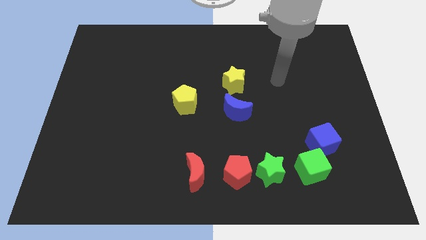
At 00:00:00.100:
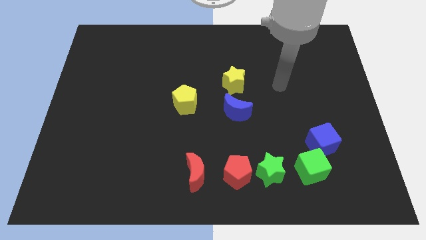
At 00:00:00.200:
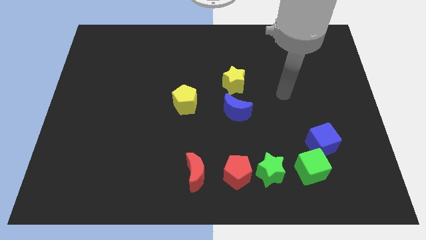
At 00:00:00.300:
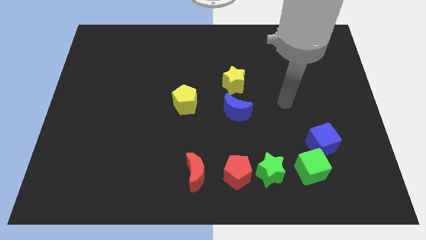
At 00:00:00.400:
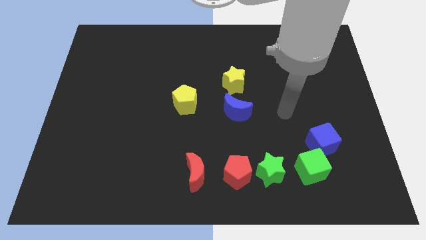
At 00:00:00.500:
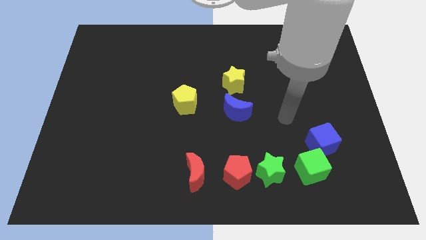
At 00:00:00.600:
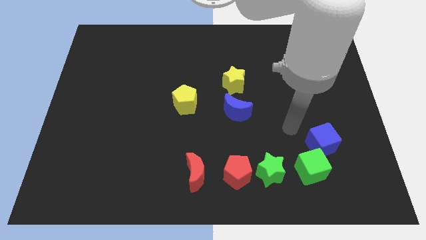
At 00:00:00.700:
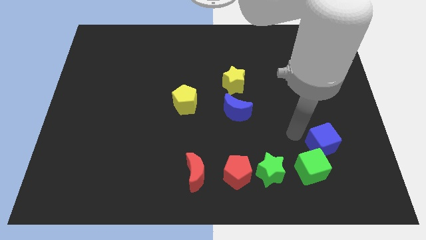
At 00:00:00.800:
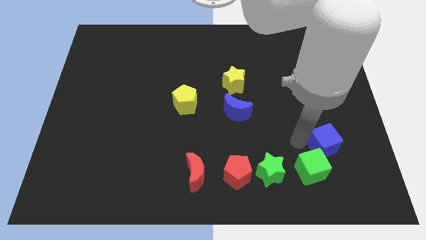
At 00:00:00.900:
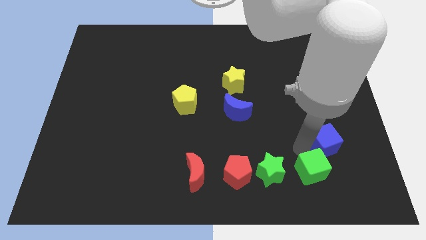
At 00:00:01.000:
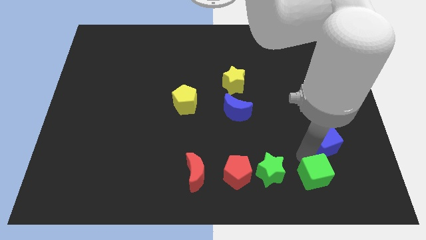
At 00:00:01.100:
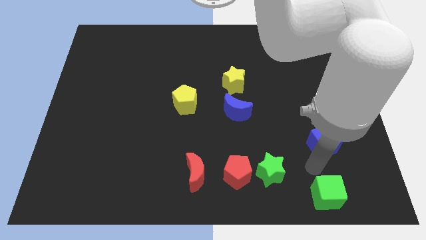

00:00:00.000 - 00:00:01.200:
separate the blue cube from the green cube

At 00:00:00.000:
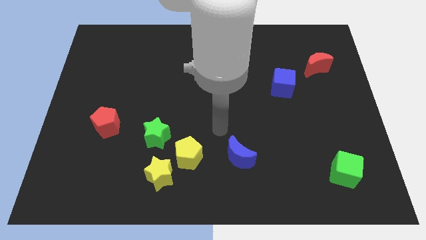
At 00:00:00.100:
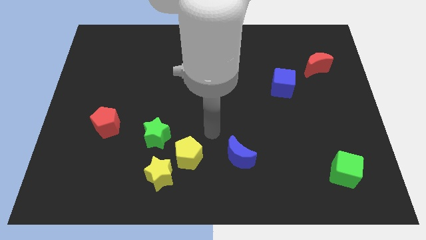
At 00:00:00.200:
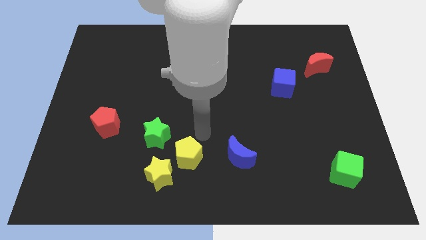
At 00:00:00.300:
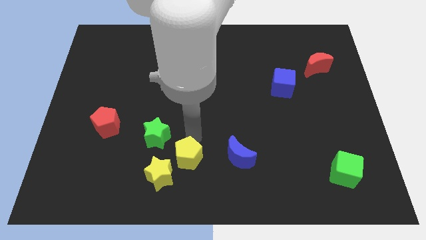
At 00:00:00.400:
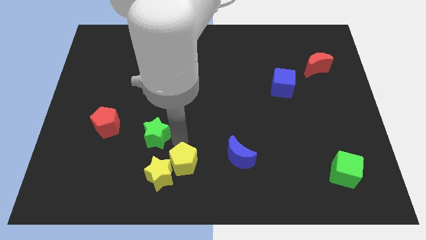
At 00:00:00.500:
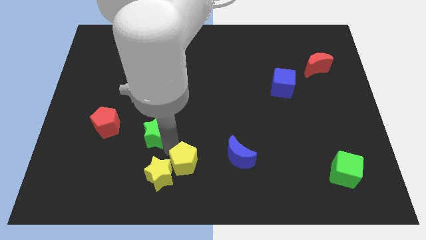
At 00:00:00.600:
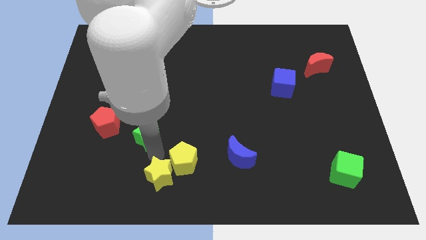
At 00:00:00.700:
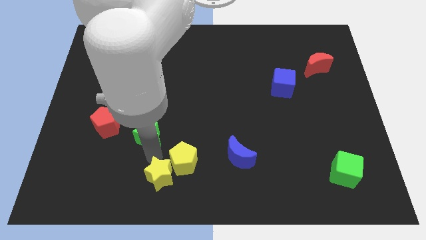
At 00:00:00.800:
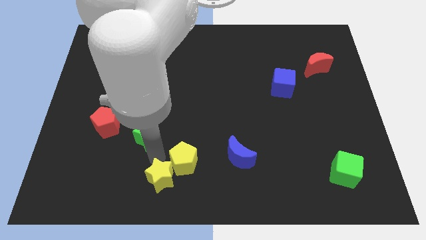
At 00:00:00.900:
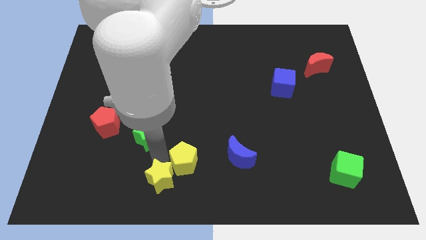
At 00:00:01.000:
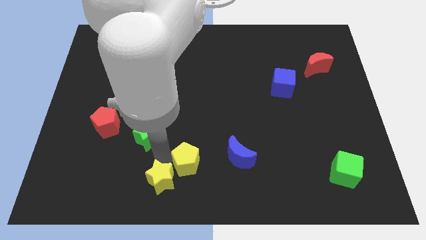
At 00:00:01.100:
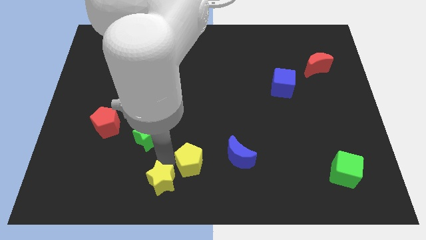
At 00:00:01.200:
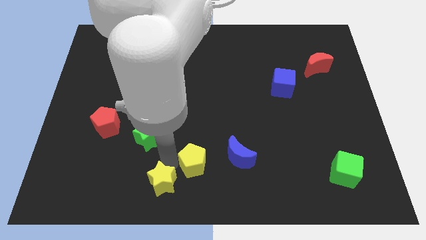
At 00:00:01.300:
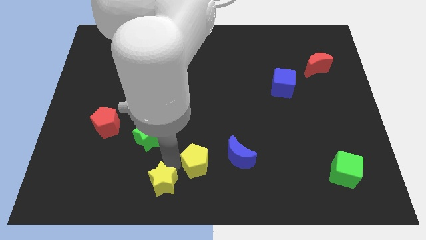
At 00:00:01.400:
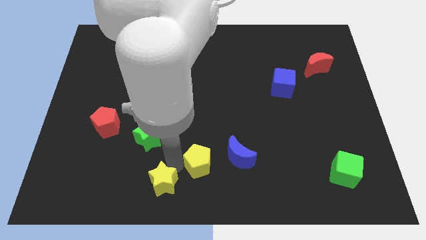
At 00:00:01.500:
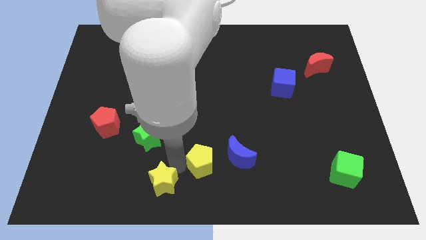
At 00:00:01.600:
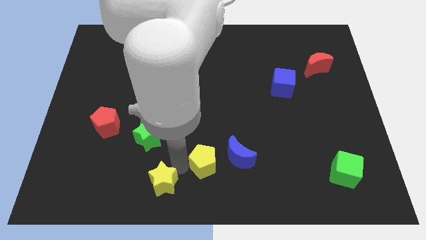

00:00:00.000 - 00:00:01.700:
separate the yellow pentagon from the yellow star and green star

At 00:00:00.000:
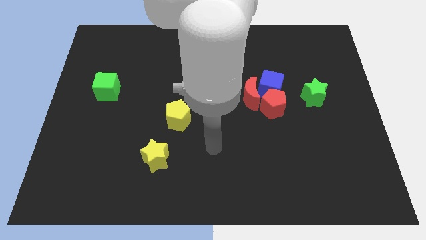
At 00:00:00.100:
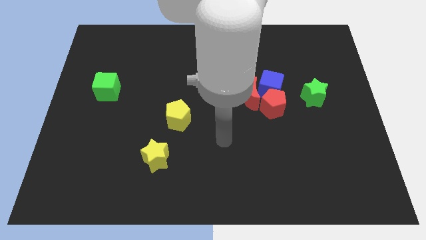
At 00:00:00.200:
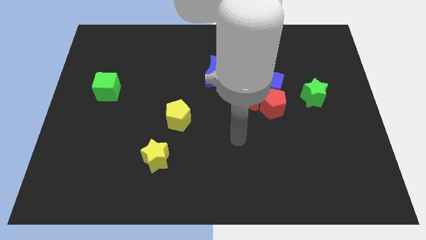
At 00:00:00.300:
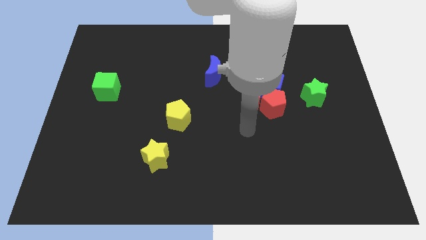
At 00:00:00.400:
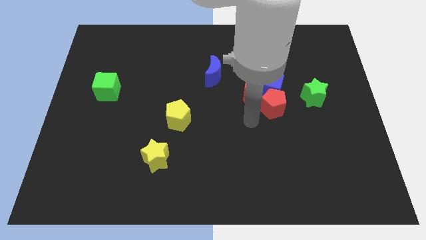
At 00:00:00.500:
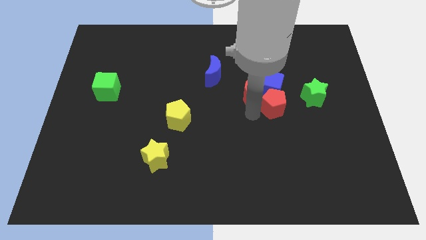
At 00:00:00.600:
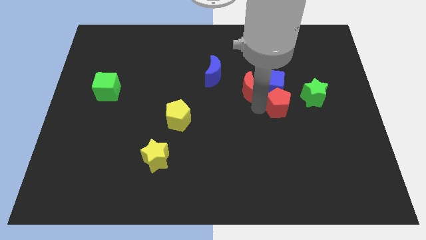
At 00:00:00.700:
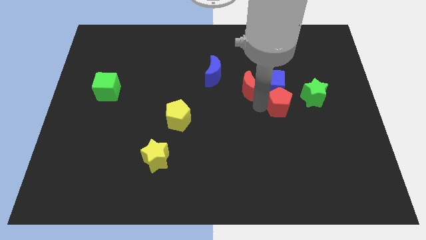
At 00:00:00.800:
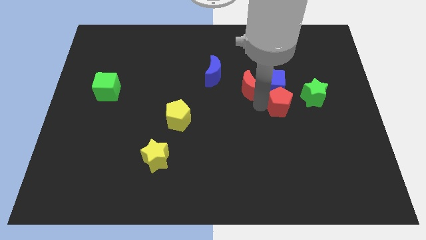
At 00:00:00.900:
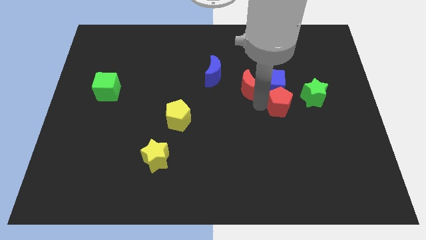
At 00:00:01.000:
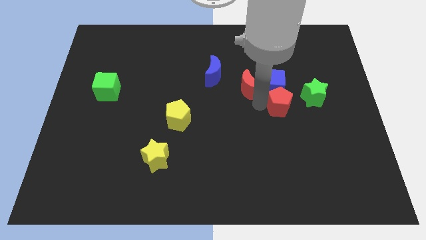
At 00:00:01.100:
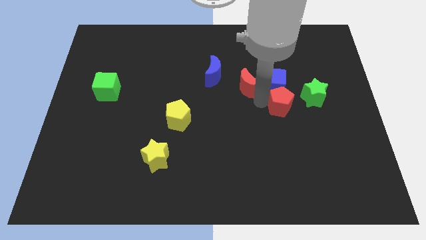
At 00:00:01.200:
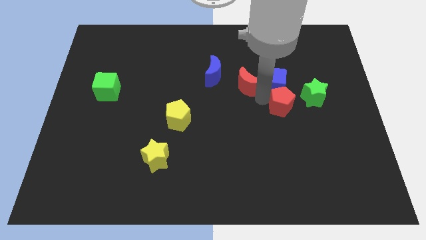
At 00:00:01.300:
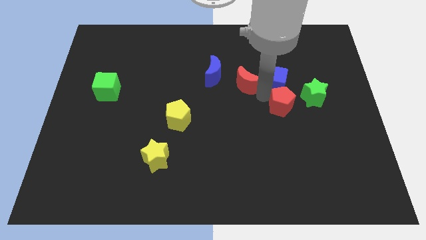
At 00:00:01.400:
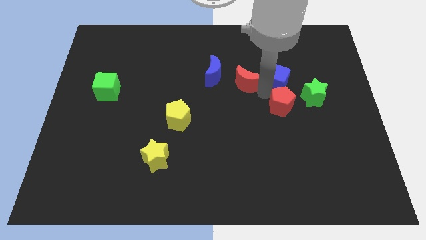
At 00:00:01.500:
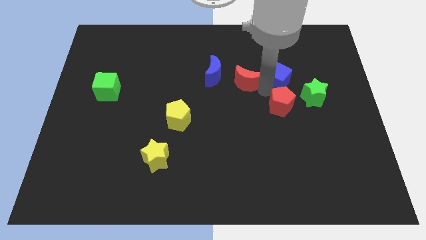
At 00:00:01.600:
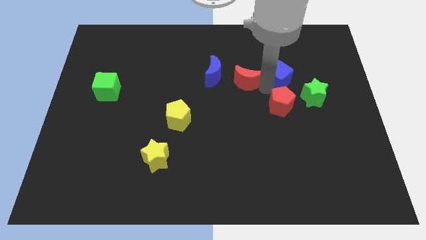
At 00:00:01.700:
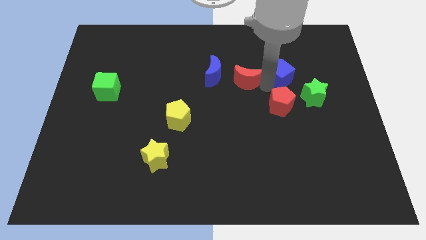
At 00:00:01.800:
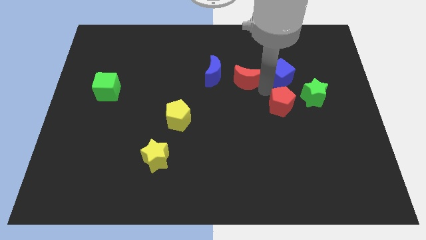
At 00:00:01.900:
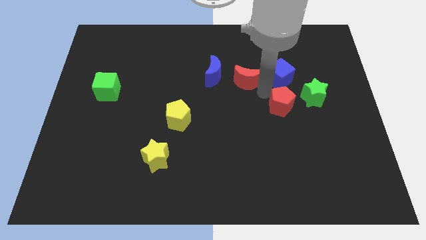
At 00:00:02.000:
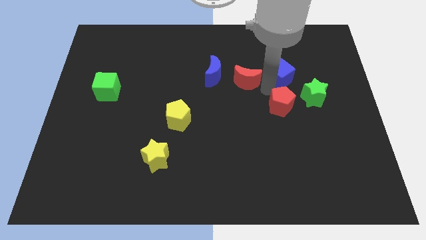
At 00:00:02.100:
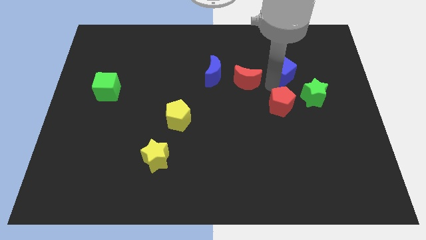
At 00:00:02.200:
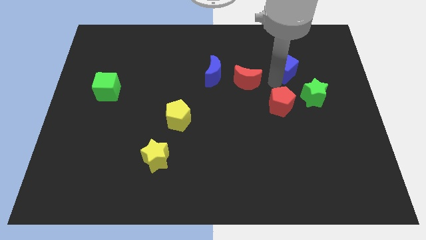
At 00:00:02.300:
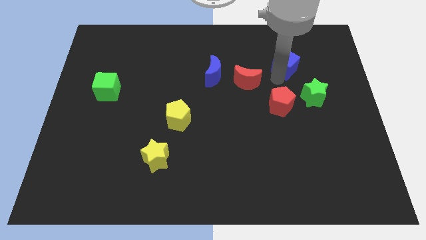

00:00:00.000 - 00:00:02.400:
separate the blue cube from the red moon and red pentagon

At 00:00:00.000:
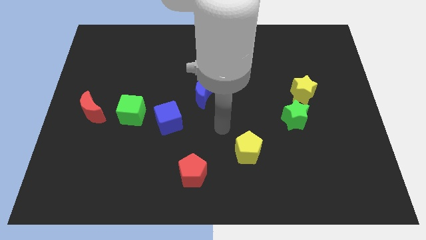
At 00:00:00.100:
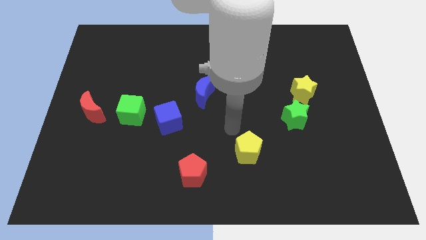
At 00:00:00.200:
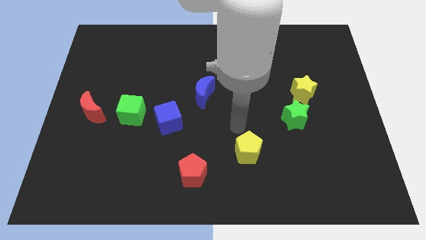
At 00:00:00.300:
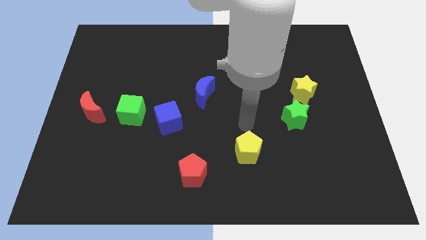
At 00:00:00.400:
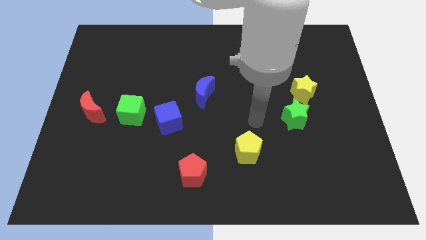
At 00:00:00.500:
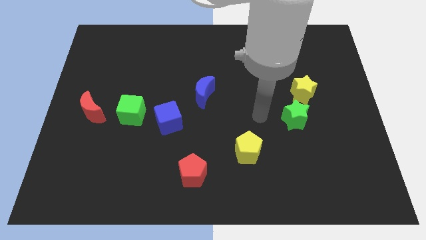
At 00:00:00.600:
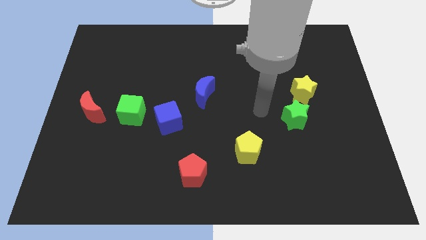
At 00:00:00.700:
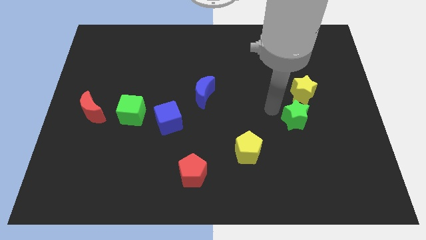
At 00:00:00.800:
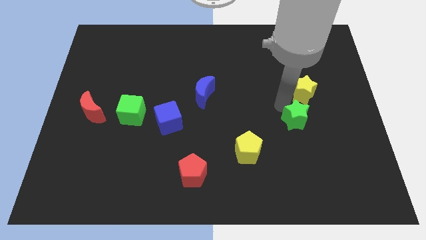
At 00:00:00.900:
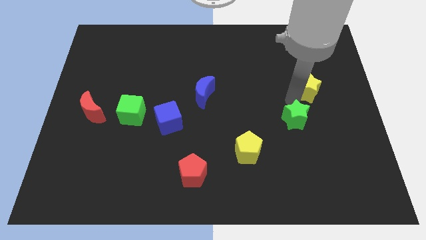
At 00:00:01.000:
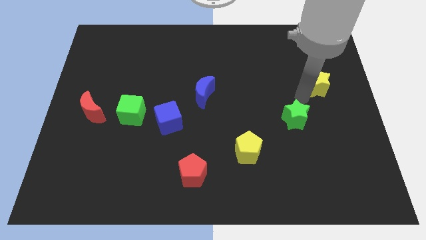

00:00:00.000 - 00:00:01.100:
move the green star away from the yellow star

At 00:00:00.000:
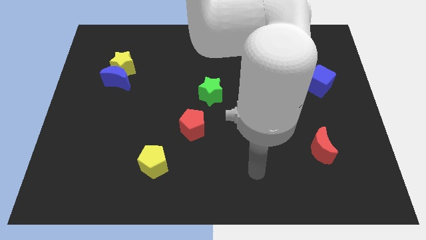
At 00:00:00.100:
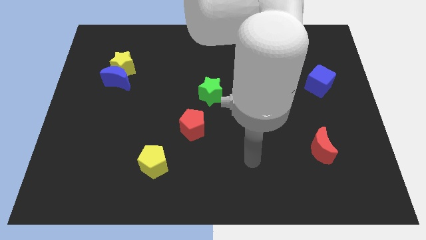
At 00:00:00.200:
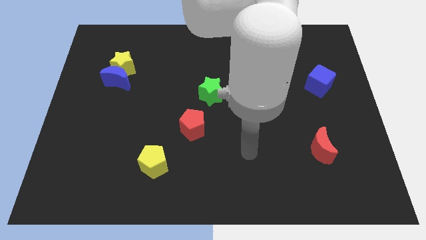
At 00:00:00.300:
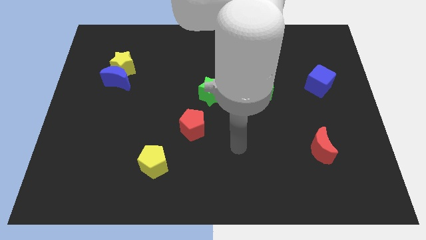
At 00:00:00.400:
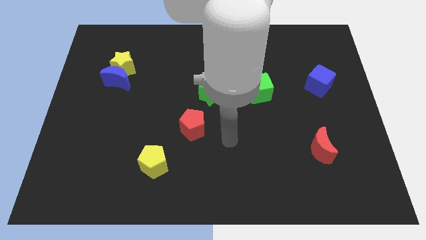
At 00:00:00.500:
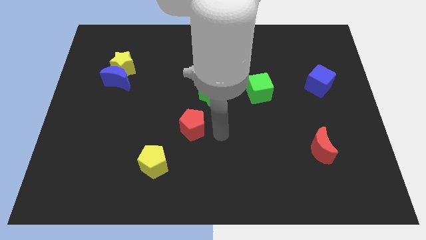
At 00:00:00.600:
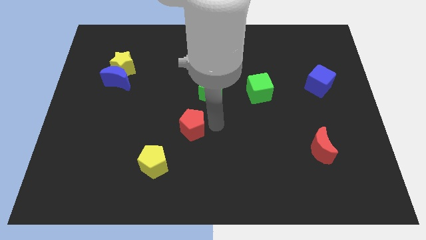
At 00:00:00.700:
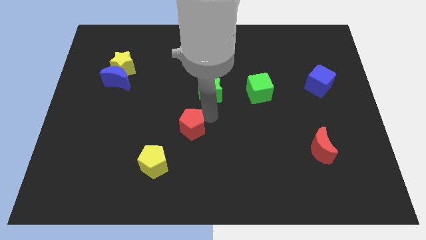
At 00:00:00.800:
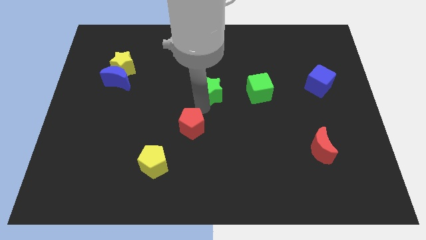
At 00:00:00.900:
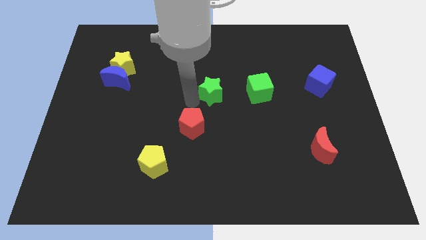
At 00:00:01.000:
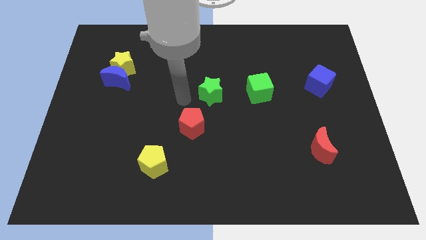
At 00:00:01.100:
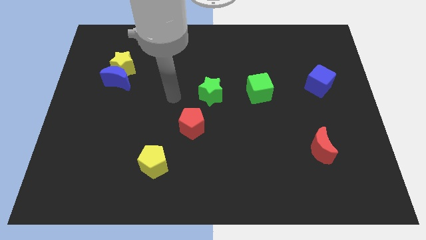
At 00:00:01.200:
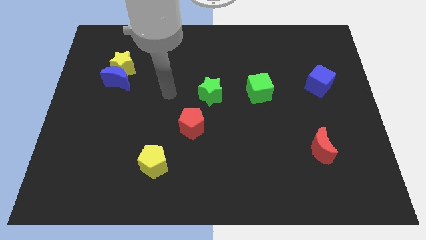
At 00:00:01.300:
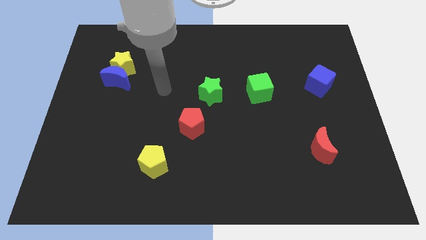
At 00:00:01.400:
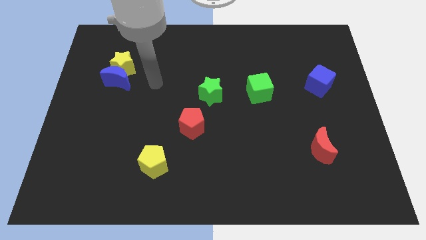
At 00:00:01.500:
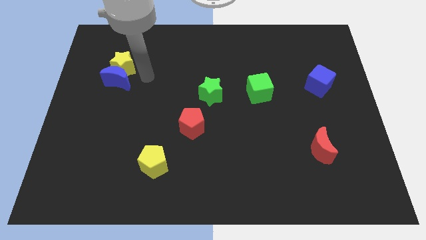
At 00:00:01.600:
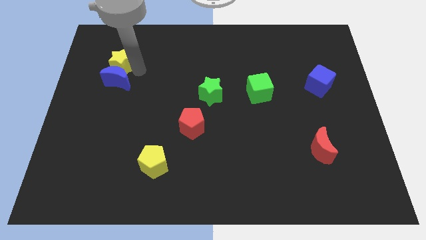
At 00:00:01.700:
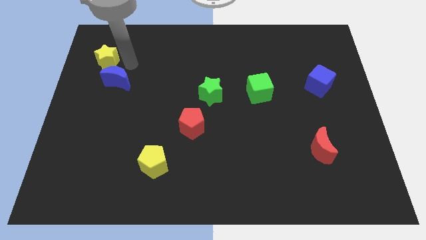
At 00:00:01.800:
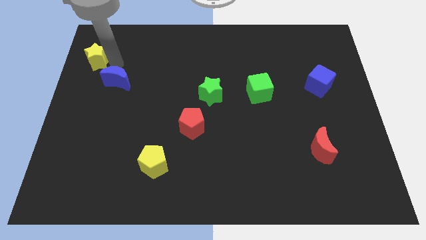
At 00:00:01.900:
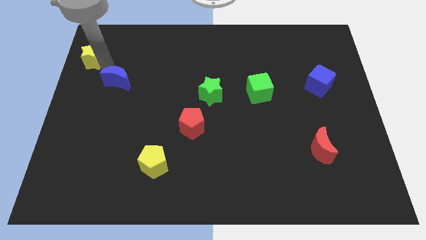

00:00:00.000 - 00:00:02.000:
pull the blue moon apart from the yellow star

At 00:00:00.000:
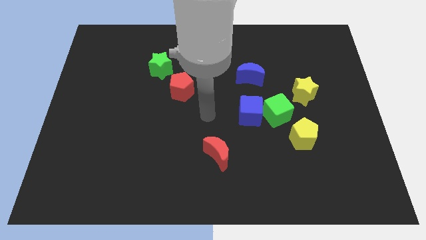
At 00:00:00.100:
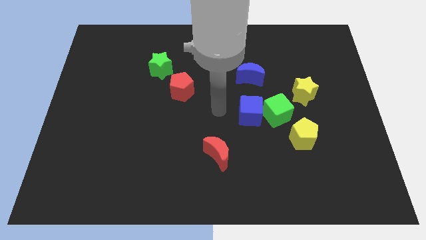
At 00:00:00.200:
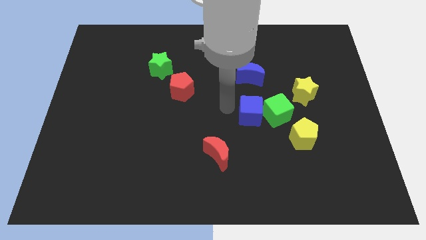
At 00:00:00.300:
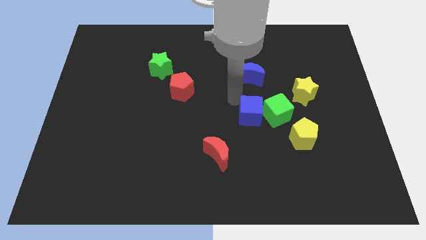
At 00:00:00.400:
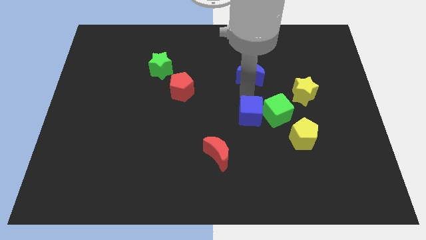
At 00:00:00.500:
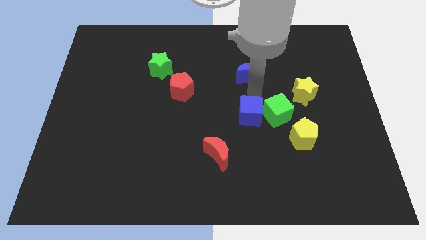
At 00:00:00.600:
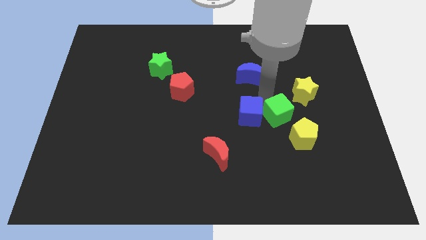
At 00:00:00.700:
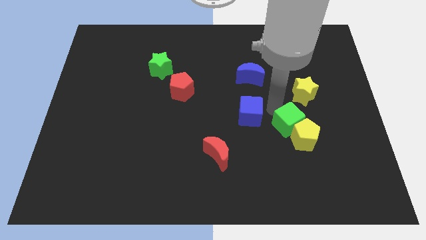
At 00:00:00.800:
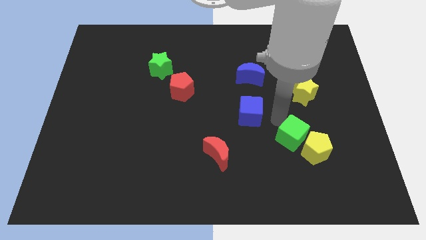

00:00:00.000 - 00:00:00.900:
move the blue cube away from the green cube
